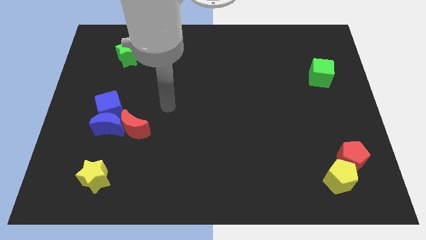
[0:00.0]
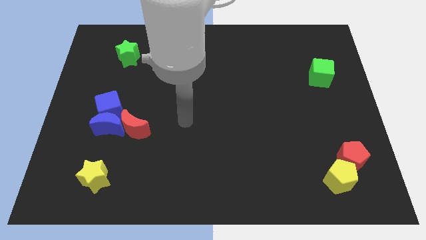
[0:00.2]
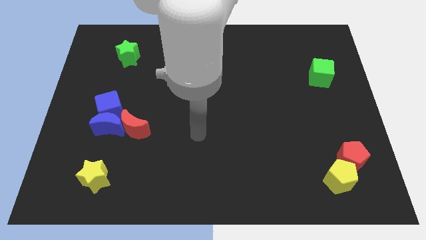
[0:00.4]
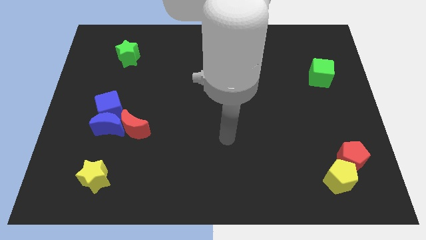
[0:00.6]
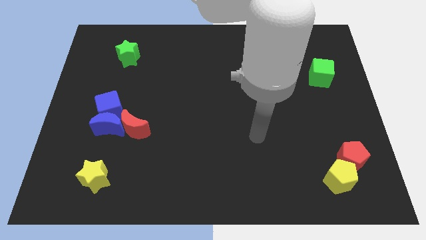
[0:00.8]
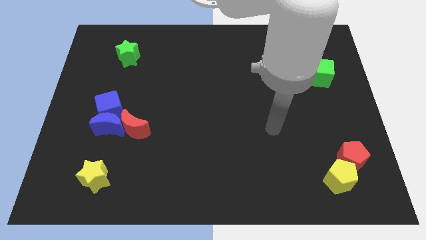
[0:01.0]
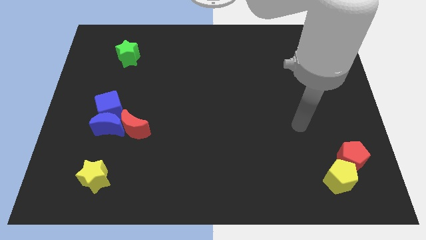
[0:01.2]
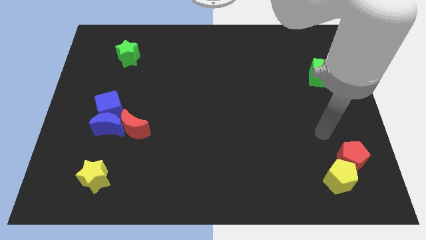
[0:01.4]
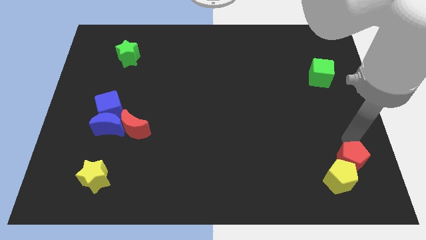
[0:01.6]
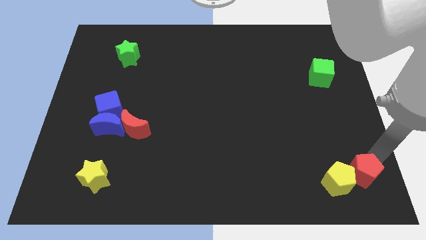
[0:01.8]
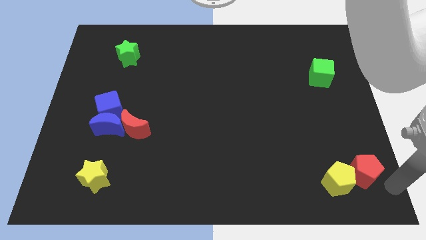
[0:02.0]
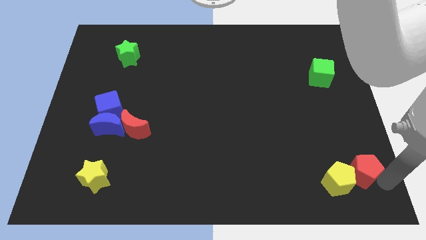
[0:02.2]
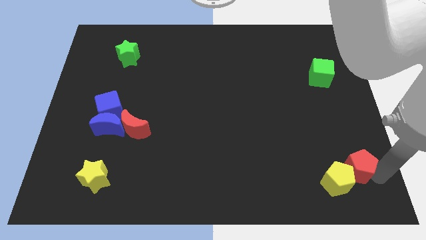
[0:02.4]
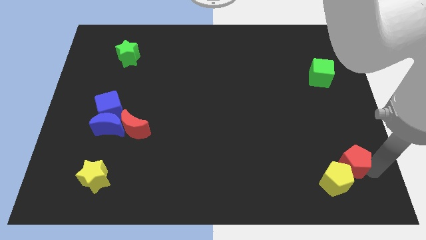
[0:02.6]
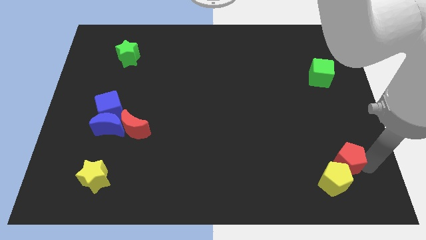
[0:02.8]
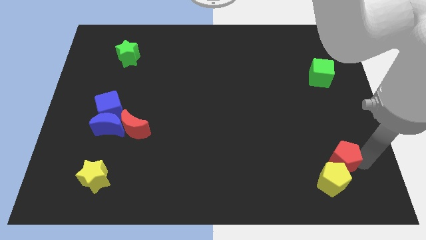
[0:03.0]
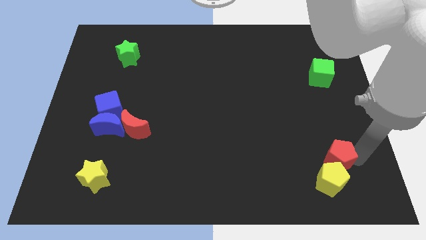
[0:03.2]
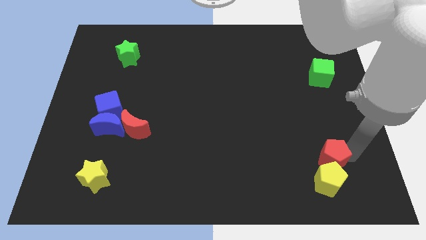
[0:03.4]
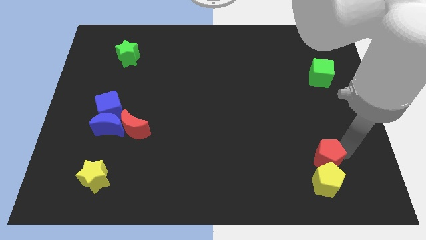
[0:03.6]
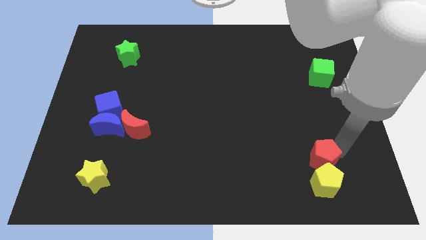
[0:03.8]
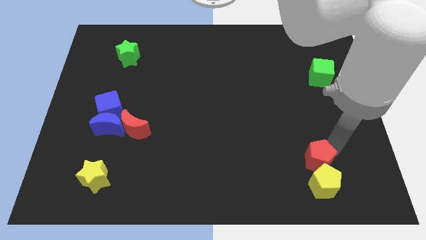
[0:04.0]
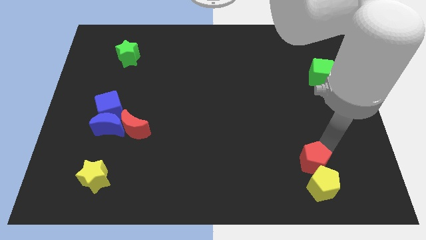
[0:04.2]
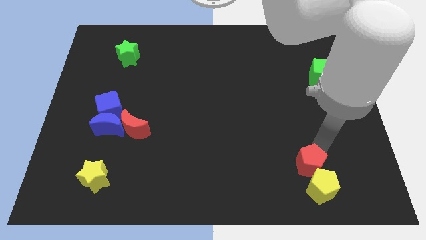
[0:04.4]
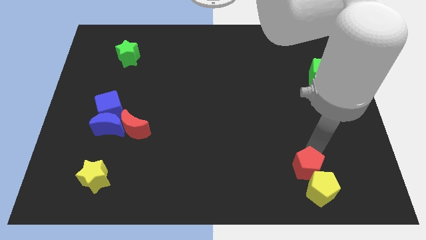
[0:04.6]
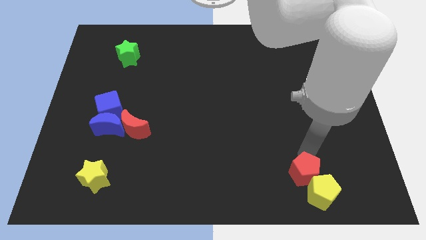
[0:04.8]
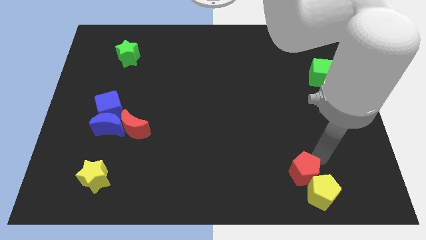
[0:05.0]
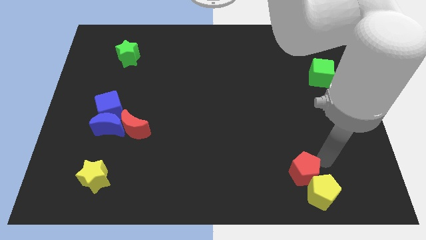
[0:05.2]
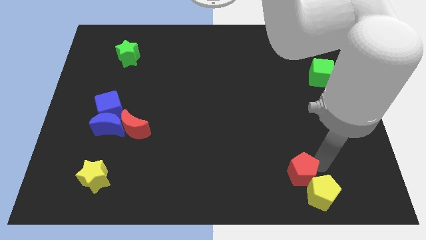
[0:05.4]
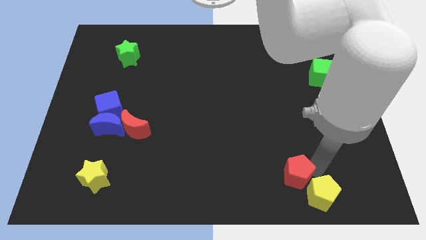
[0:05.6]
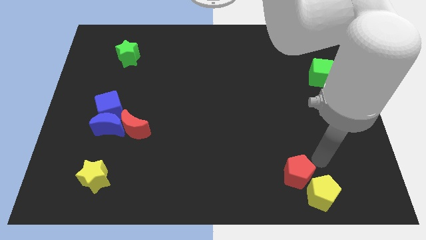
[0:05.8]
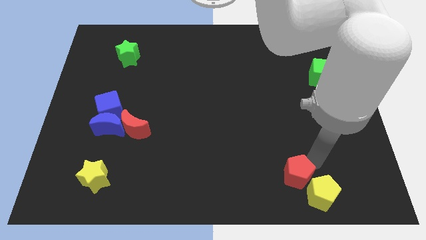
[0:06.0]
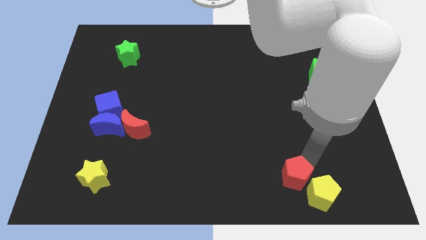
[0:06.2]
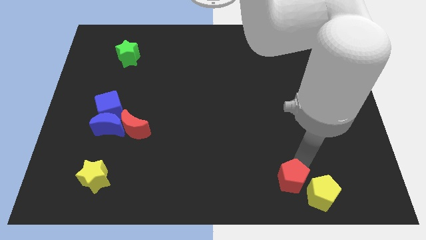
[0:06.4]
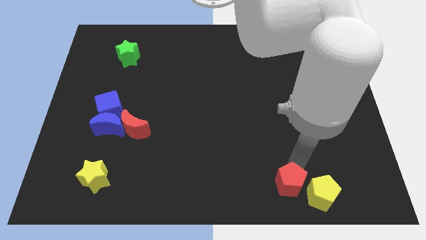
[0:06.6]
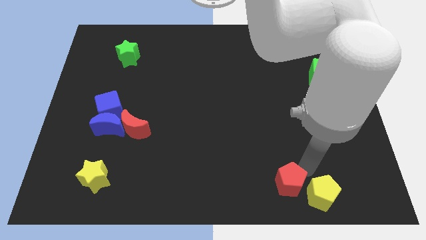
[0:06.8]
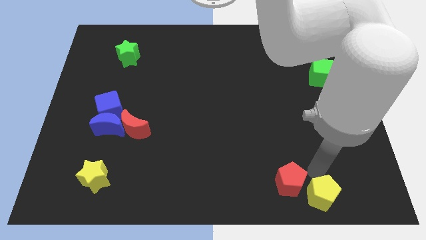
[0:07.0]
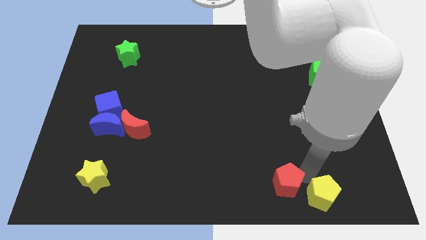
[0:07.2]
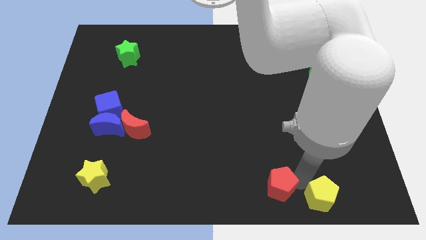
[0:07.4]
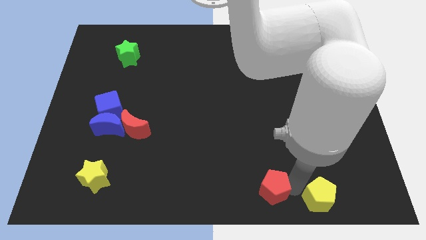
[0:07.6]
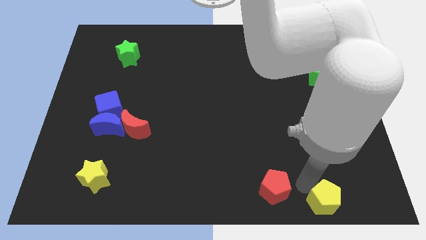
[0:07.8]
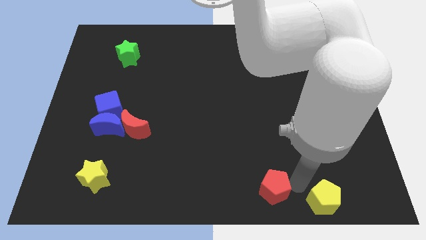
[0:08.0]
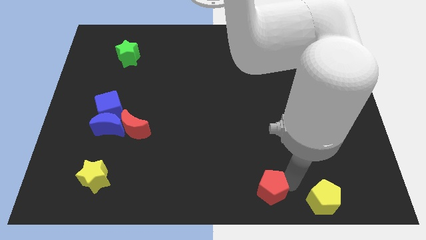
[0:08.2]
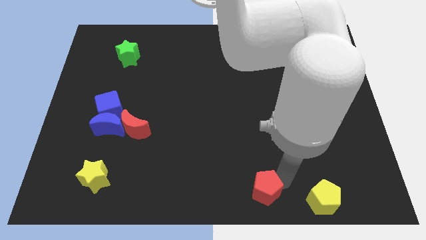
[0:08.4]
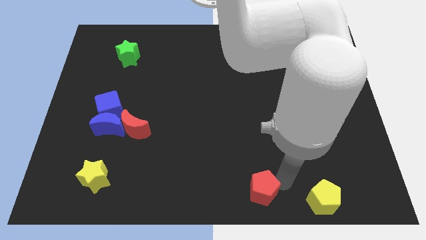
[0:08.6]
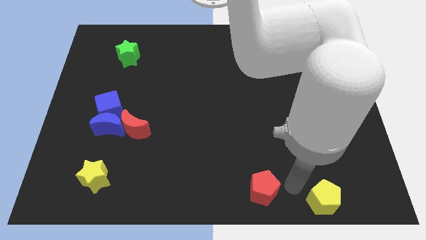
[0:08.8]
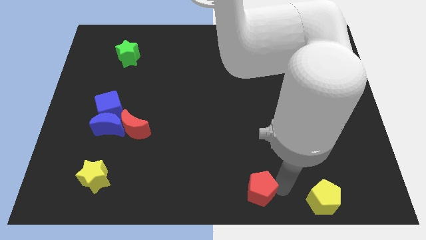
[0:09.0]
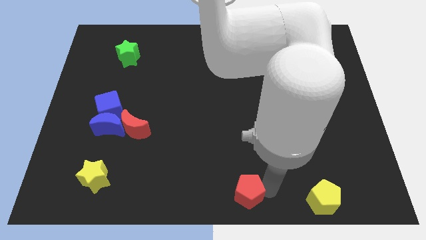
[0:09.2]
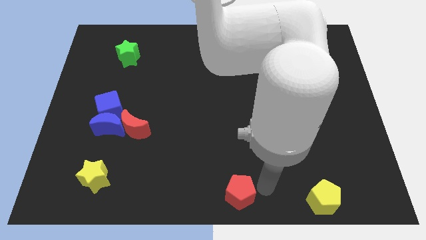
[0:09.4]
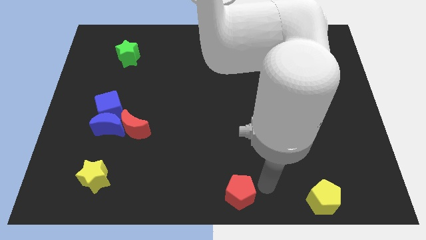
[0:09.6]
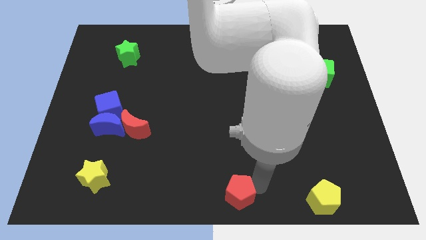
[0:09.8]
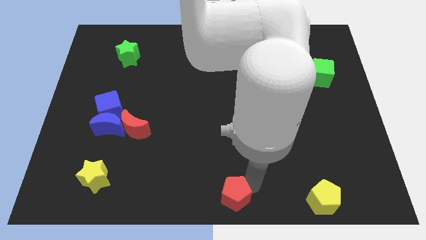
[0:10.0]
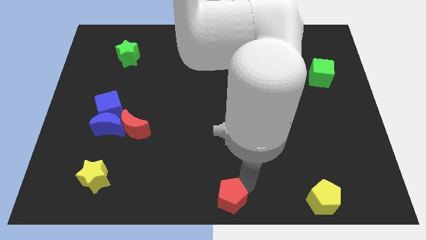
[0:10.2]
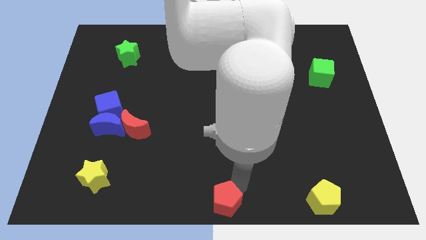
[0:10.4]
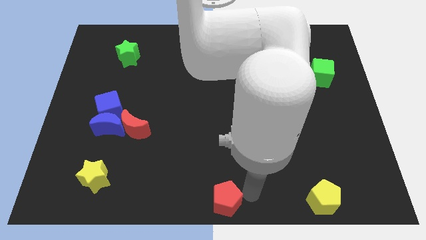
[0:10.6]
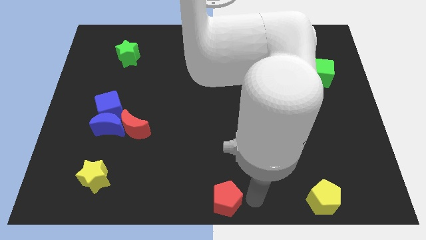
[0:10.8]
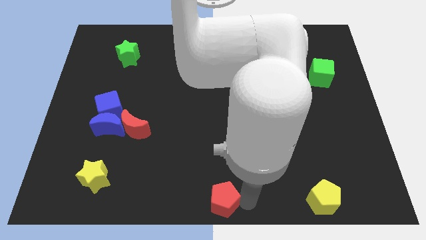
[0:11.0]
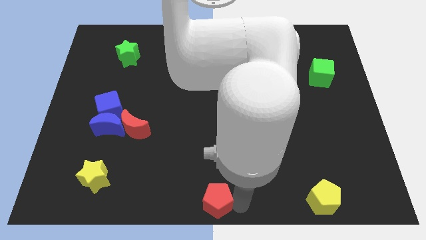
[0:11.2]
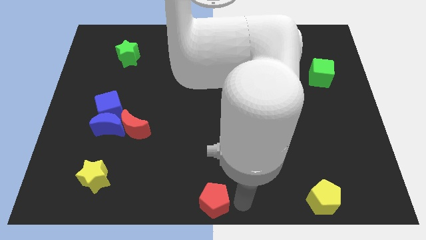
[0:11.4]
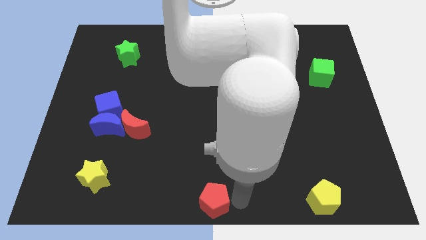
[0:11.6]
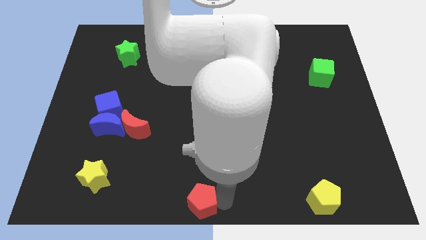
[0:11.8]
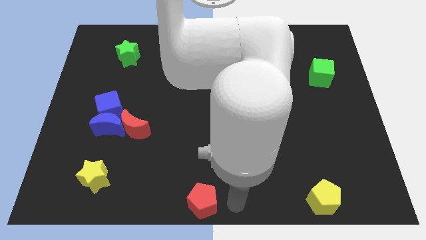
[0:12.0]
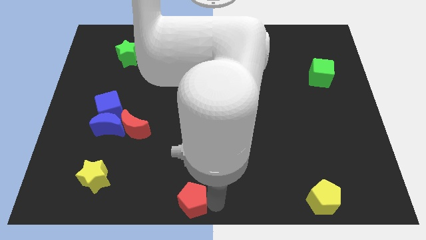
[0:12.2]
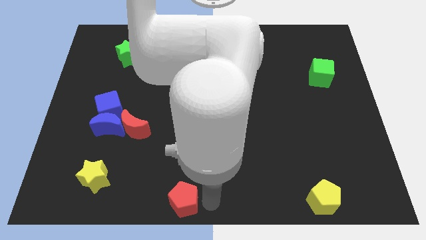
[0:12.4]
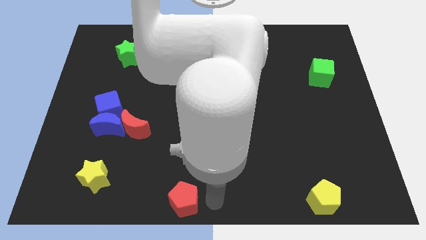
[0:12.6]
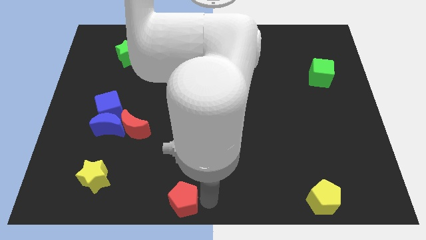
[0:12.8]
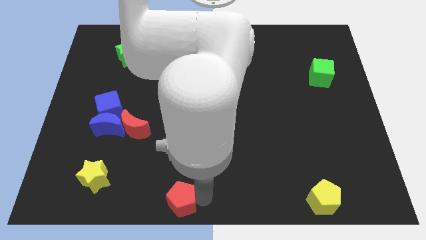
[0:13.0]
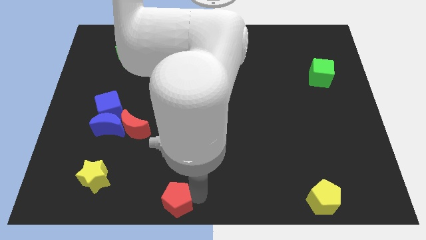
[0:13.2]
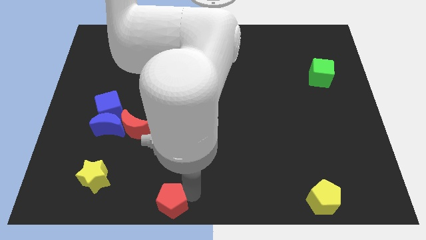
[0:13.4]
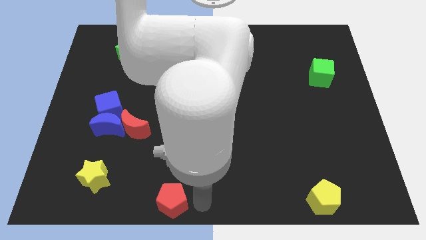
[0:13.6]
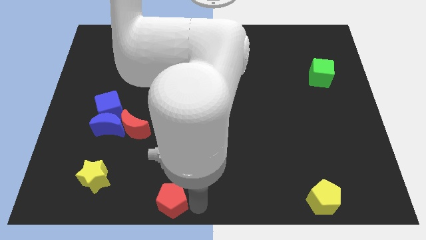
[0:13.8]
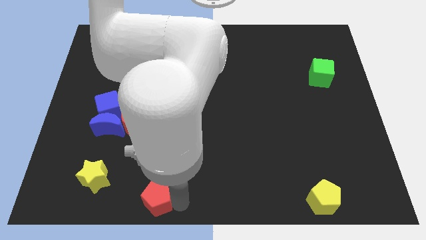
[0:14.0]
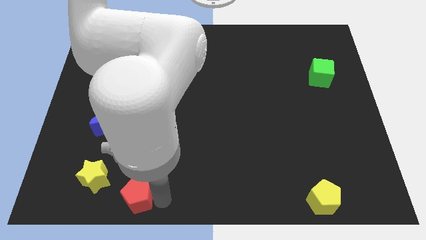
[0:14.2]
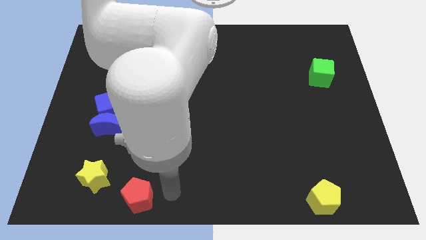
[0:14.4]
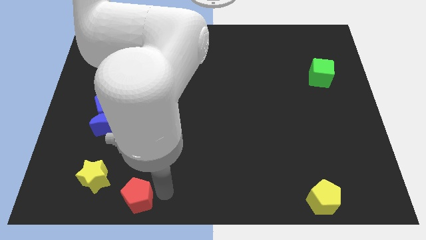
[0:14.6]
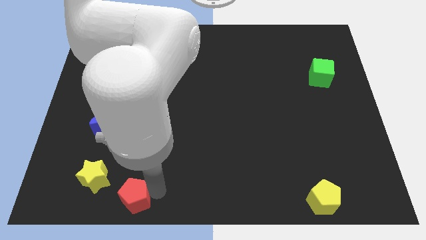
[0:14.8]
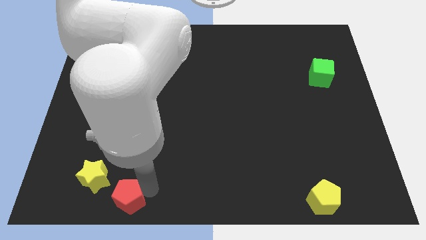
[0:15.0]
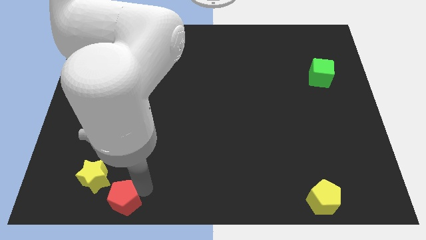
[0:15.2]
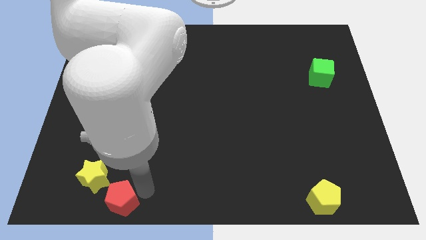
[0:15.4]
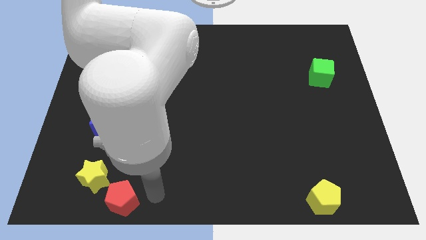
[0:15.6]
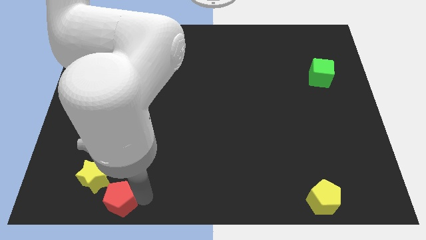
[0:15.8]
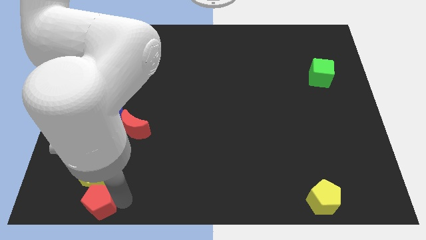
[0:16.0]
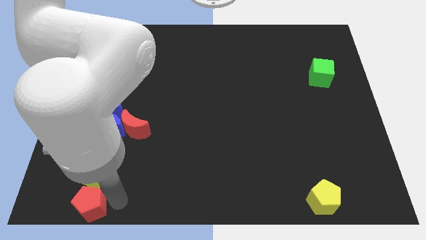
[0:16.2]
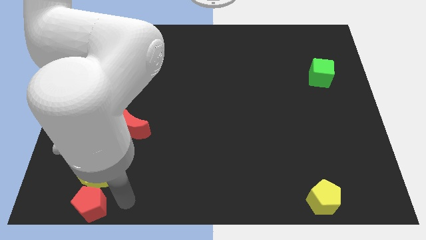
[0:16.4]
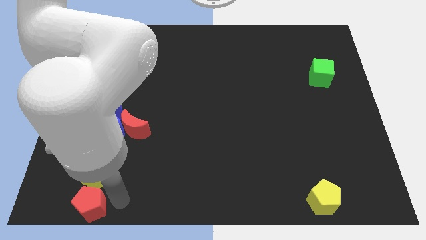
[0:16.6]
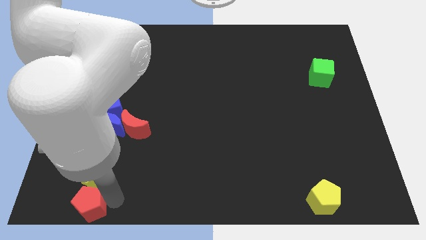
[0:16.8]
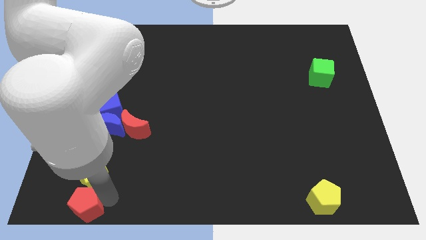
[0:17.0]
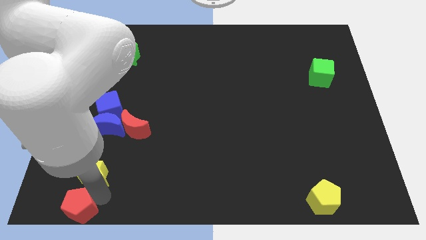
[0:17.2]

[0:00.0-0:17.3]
push the red pentagon to the bottom left of the board
